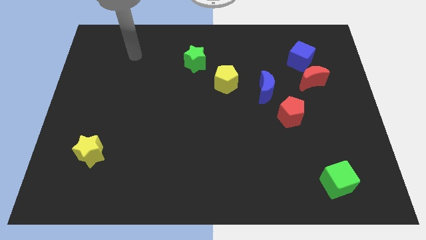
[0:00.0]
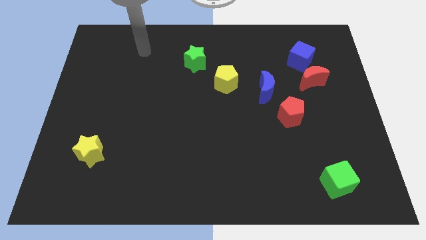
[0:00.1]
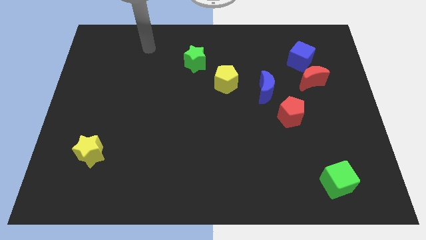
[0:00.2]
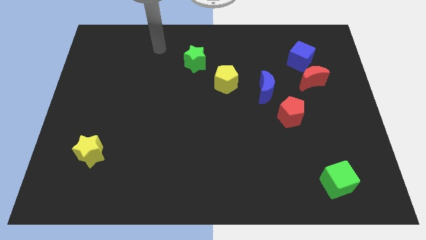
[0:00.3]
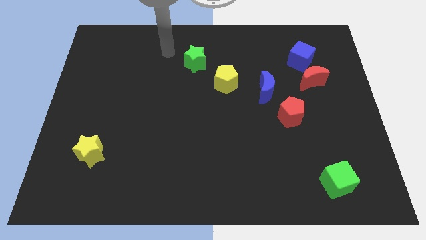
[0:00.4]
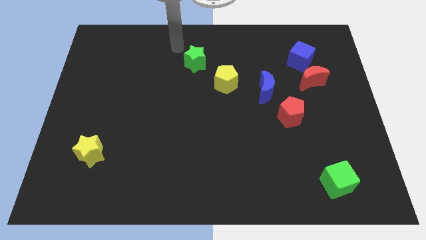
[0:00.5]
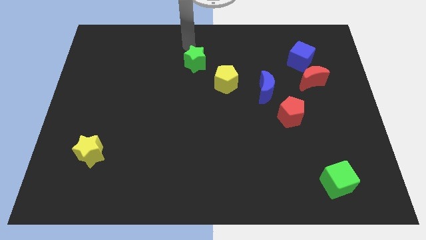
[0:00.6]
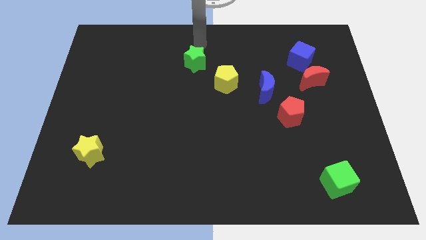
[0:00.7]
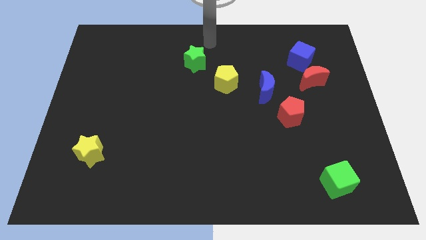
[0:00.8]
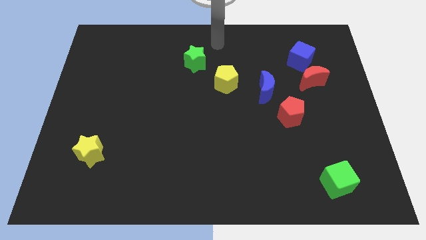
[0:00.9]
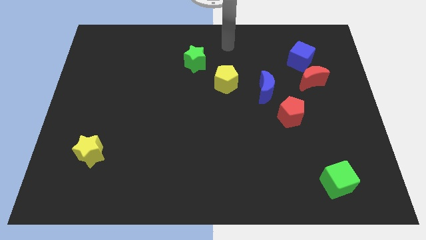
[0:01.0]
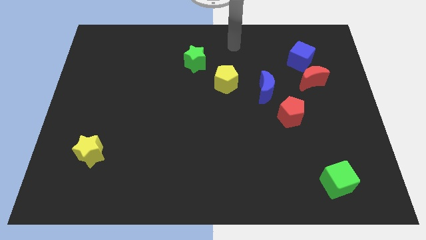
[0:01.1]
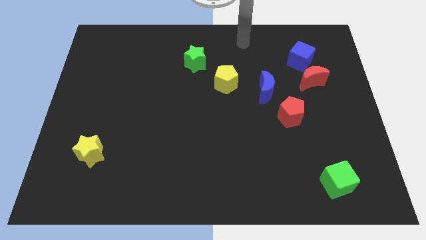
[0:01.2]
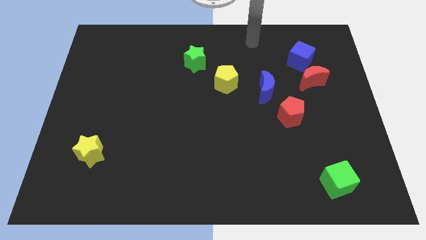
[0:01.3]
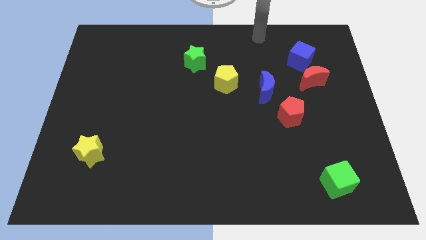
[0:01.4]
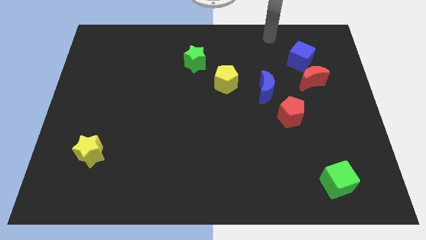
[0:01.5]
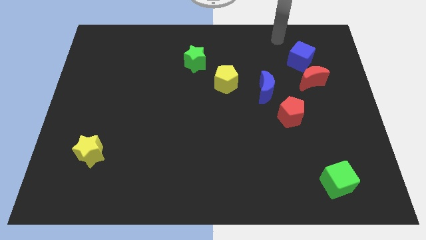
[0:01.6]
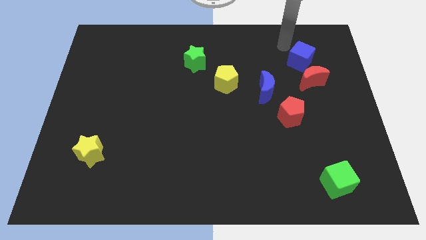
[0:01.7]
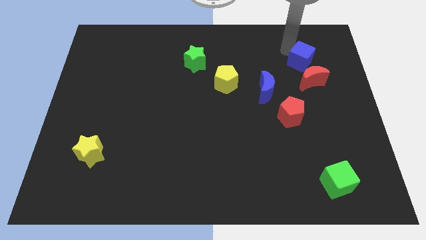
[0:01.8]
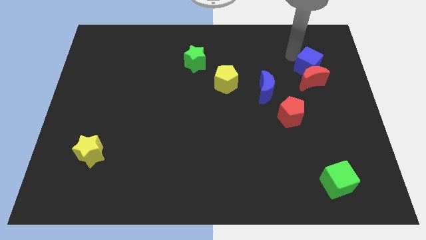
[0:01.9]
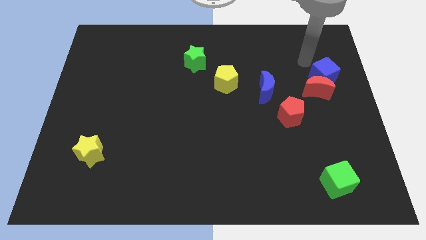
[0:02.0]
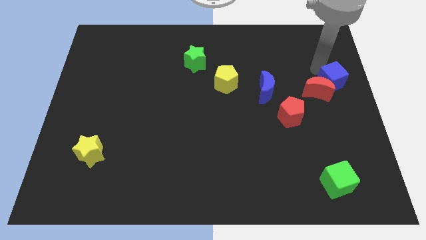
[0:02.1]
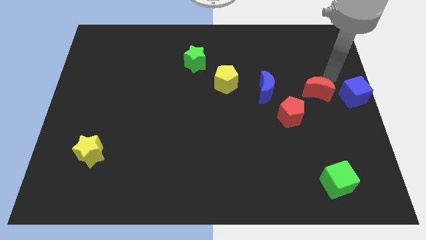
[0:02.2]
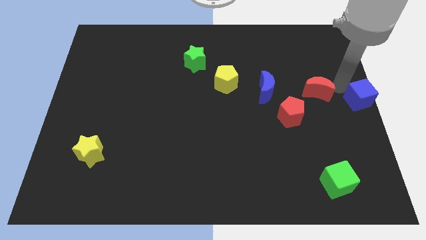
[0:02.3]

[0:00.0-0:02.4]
separate the red moon from the blue cube

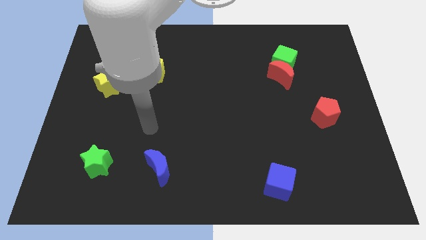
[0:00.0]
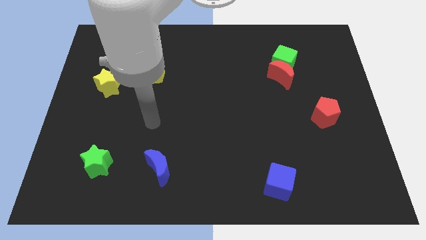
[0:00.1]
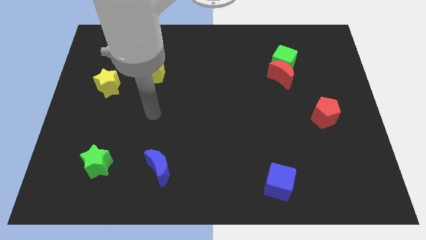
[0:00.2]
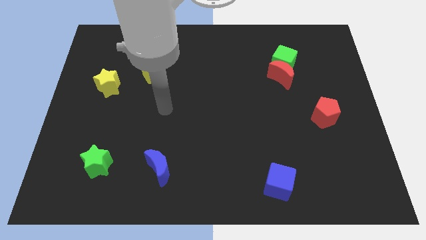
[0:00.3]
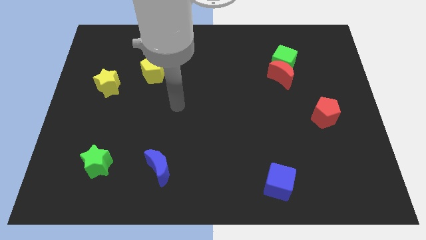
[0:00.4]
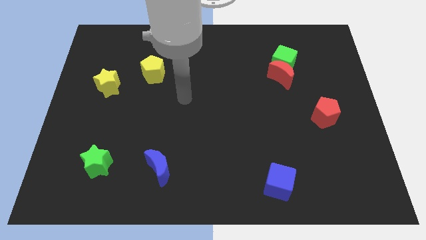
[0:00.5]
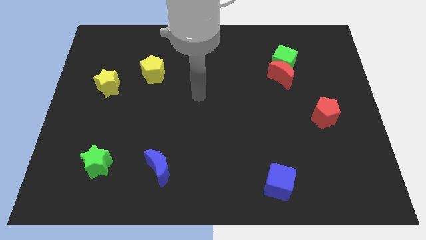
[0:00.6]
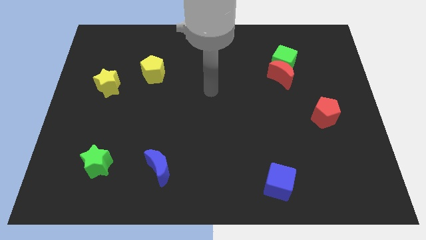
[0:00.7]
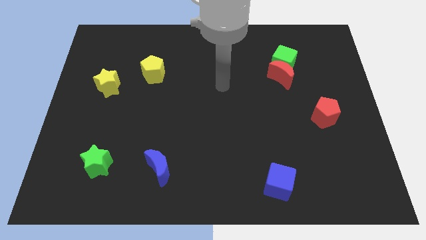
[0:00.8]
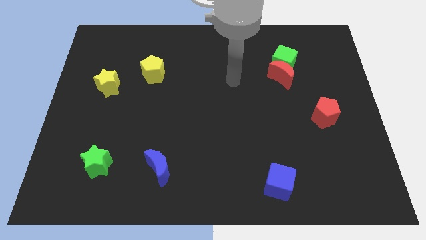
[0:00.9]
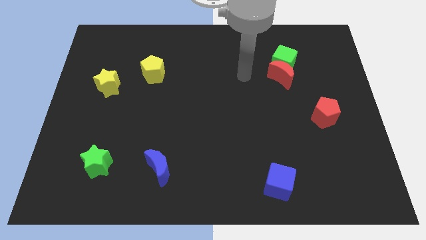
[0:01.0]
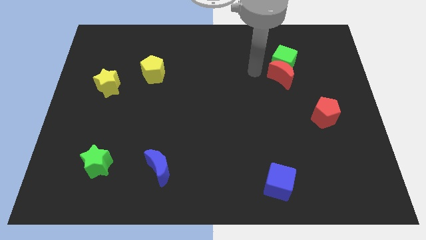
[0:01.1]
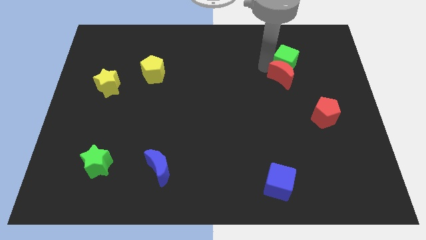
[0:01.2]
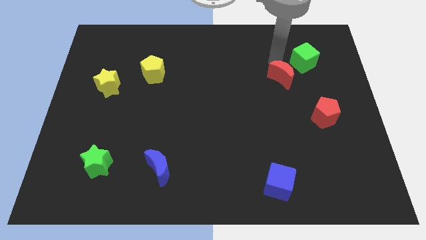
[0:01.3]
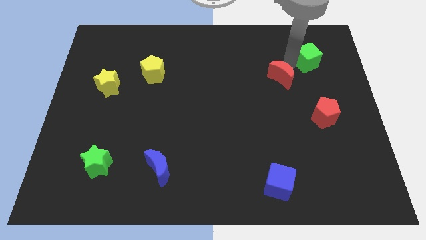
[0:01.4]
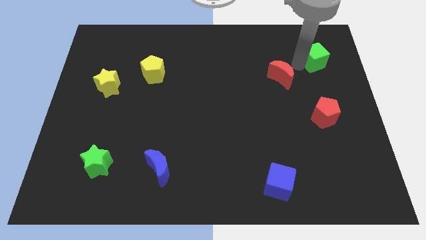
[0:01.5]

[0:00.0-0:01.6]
pull the red moon apart from the green cube

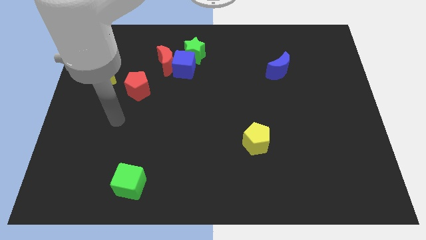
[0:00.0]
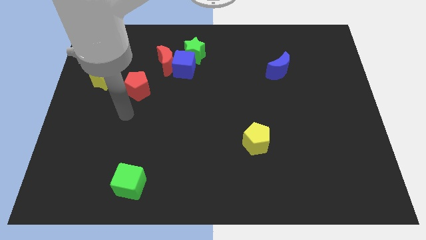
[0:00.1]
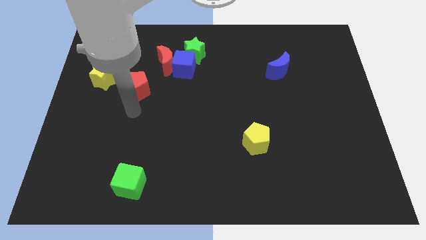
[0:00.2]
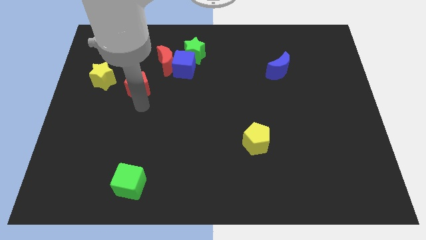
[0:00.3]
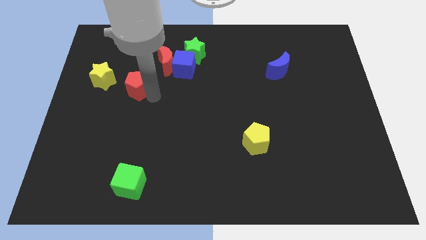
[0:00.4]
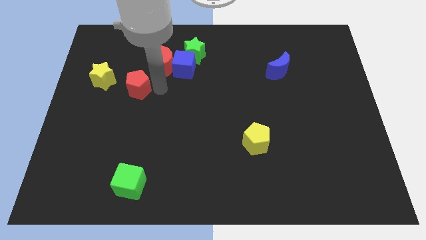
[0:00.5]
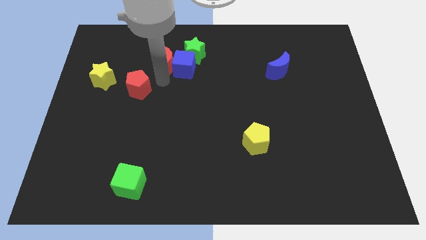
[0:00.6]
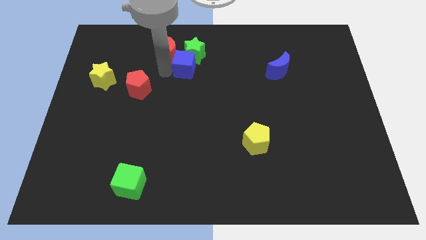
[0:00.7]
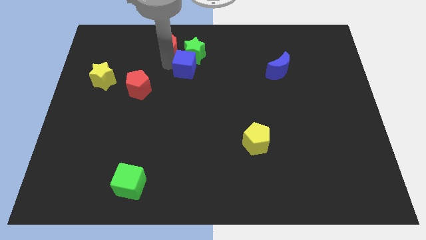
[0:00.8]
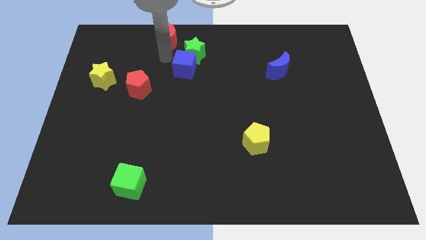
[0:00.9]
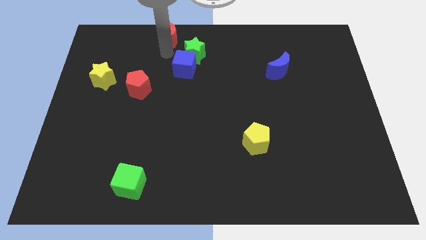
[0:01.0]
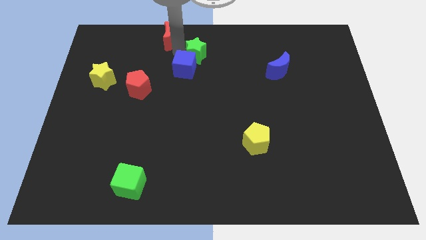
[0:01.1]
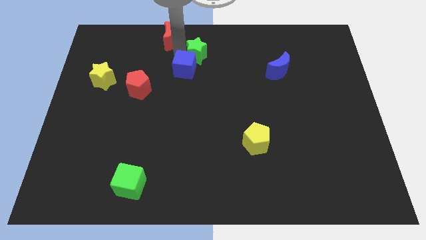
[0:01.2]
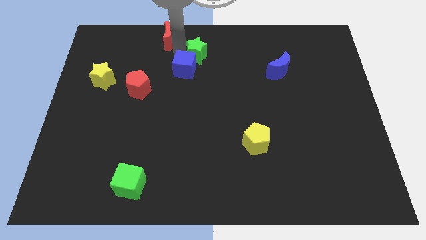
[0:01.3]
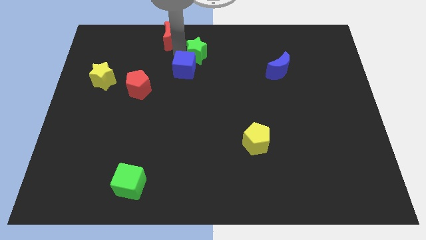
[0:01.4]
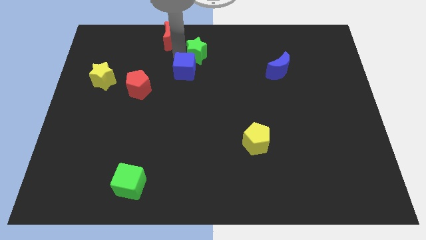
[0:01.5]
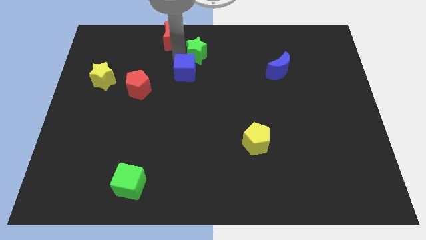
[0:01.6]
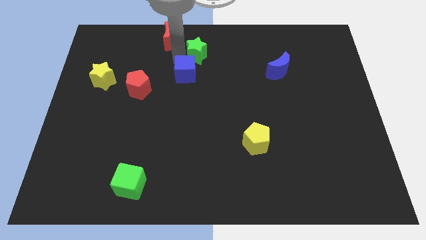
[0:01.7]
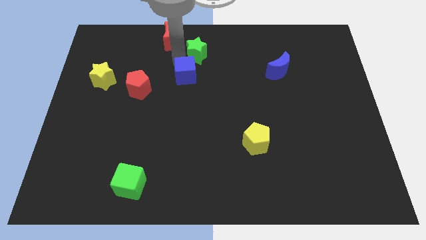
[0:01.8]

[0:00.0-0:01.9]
separate the blue cube from the red moon and green star

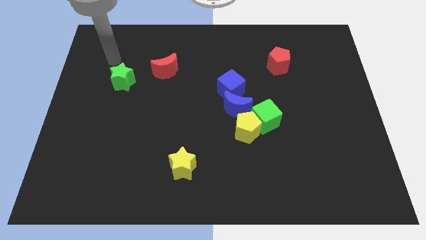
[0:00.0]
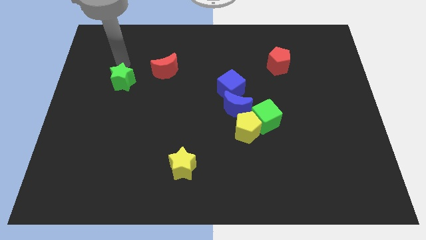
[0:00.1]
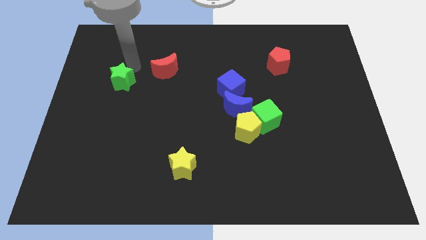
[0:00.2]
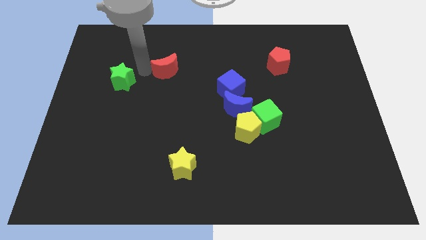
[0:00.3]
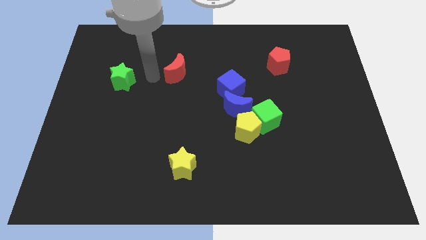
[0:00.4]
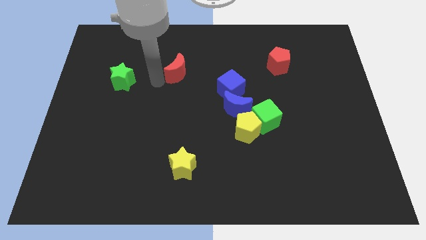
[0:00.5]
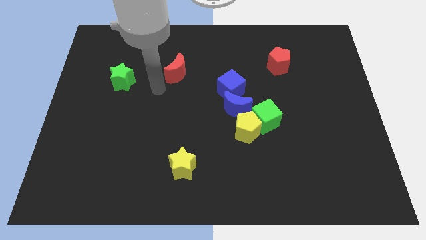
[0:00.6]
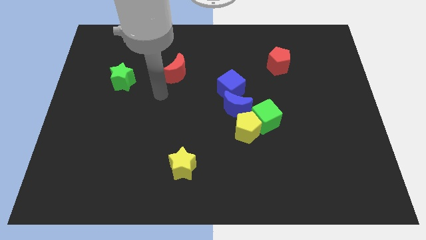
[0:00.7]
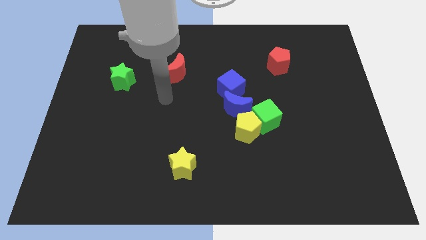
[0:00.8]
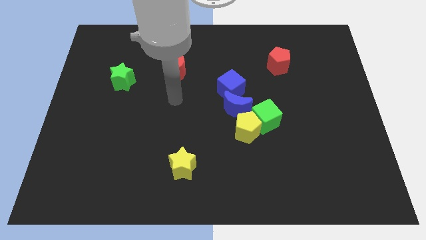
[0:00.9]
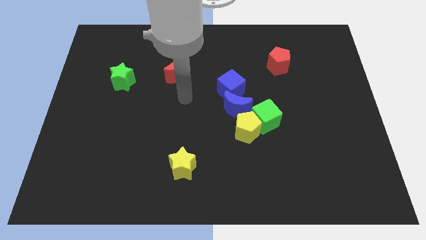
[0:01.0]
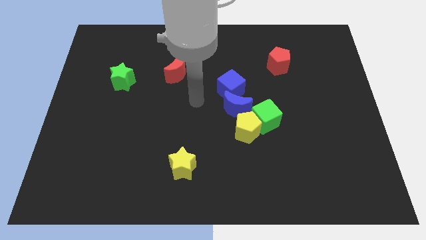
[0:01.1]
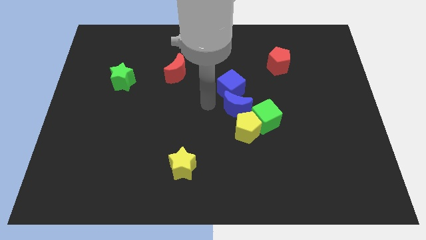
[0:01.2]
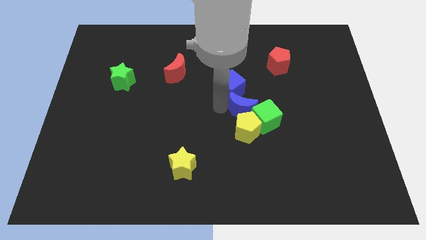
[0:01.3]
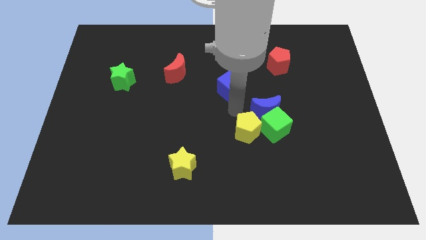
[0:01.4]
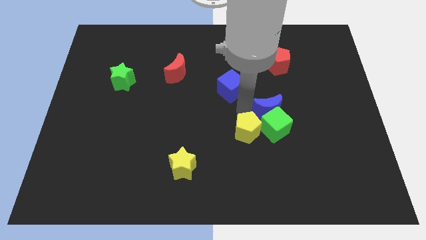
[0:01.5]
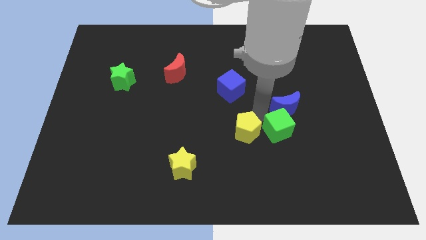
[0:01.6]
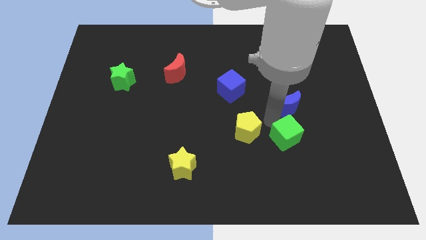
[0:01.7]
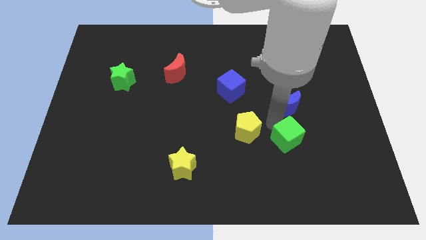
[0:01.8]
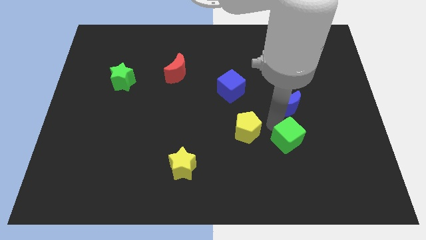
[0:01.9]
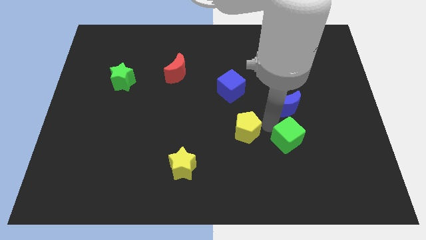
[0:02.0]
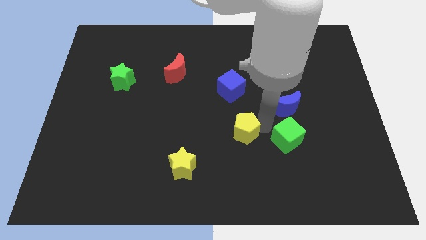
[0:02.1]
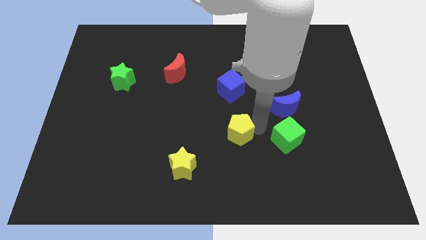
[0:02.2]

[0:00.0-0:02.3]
move the yellow pentagon away from the green cube and blue moon

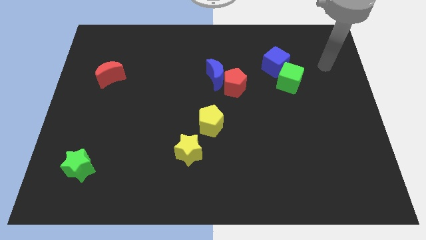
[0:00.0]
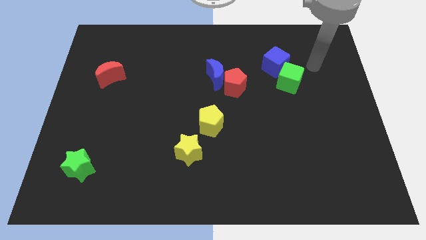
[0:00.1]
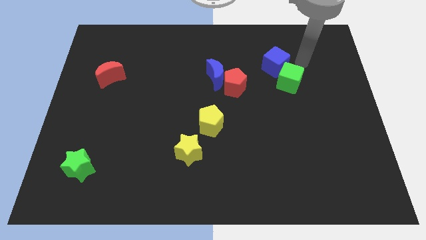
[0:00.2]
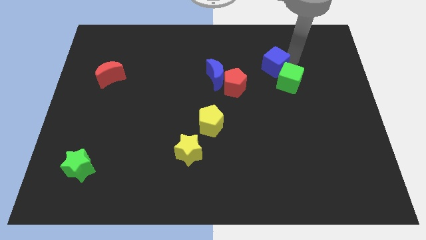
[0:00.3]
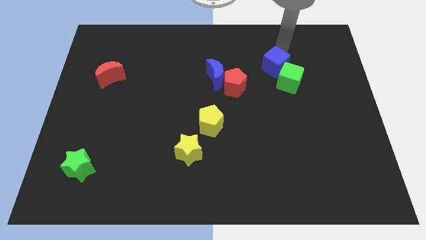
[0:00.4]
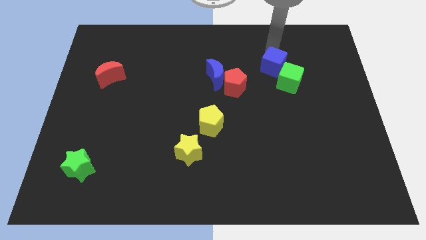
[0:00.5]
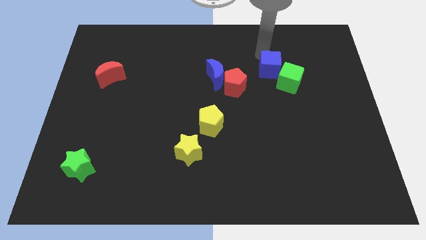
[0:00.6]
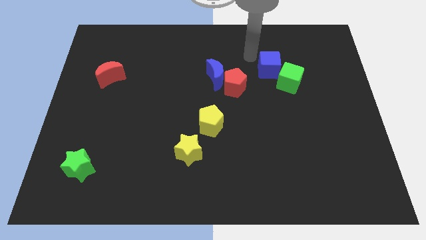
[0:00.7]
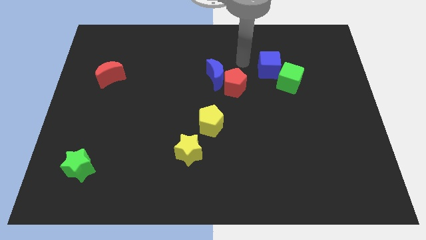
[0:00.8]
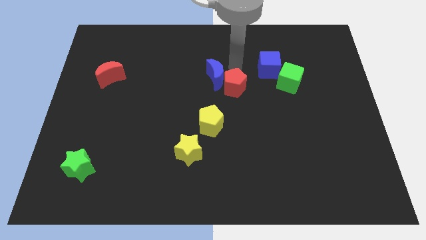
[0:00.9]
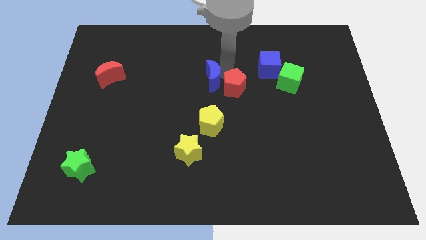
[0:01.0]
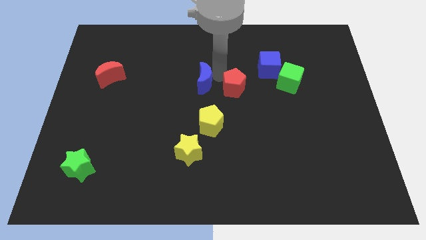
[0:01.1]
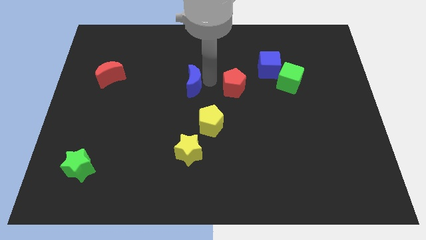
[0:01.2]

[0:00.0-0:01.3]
pull the red pentagon apart from the blue moon
